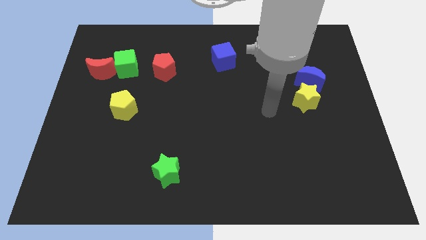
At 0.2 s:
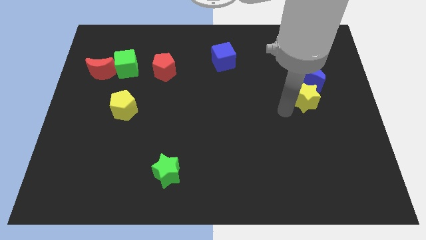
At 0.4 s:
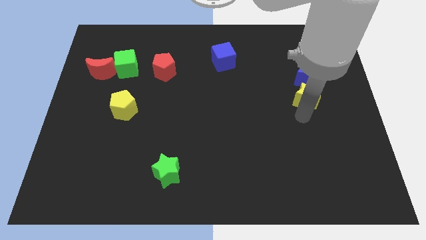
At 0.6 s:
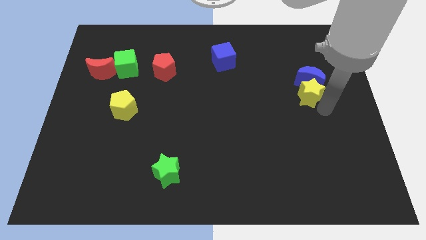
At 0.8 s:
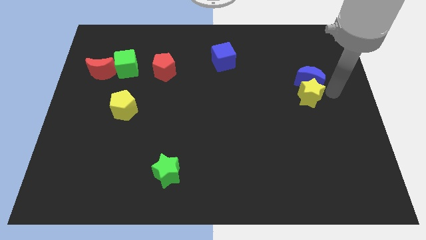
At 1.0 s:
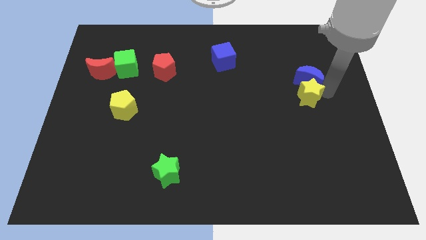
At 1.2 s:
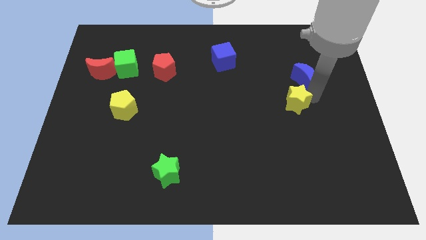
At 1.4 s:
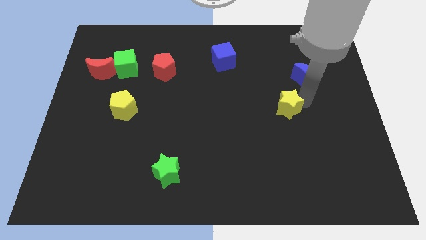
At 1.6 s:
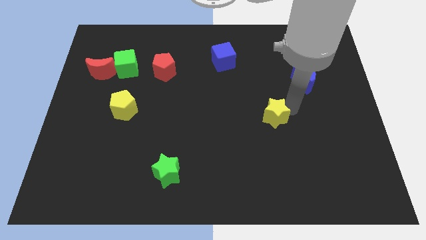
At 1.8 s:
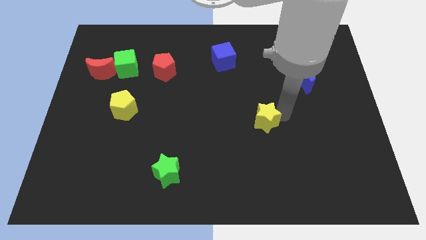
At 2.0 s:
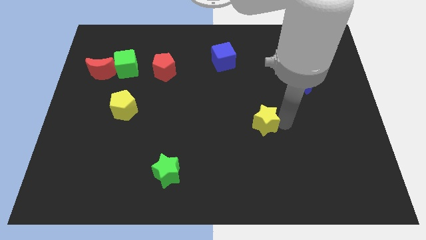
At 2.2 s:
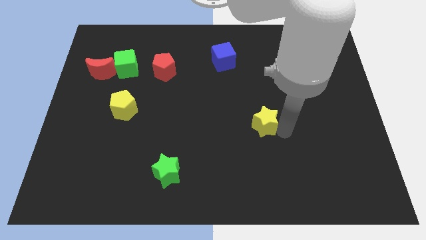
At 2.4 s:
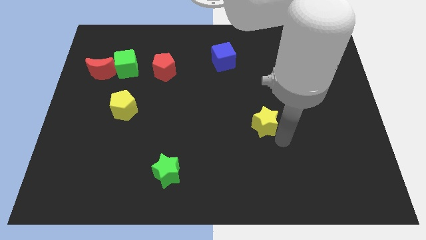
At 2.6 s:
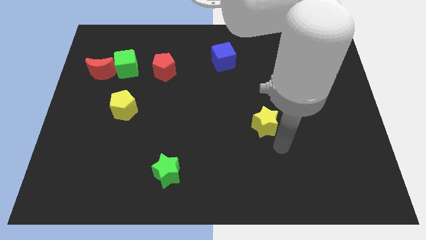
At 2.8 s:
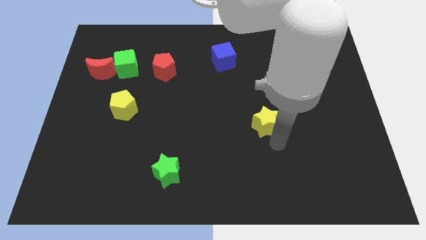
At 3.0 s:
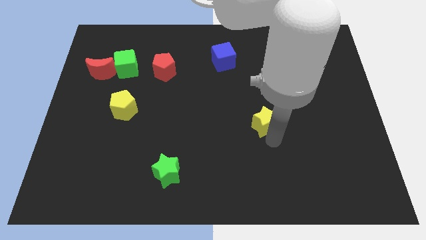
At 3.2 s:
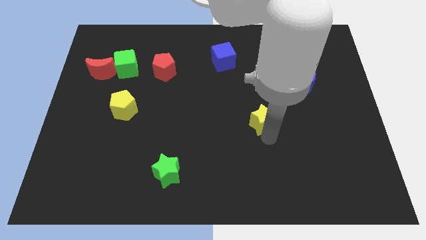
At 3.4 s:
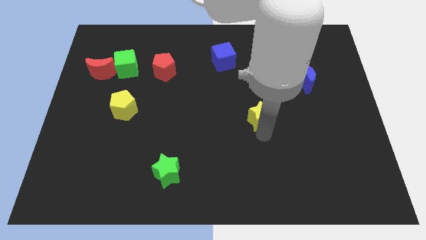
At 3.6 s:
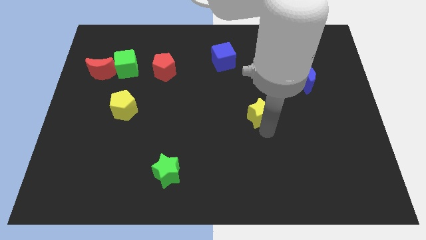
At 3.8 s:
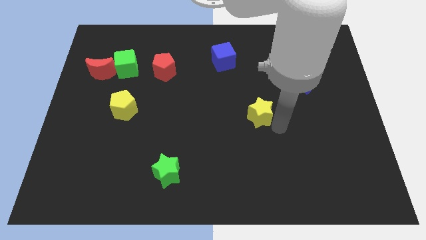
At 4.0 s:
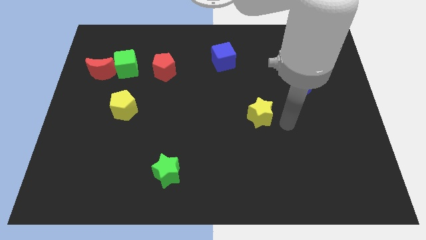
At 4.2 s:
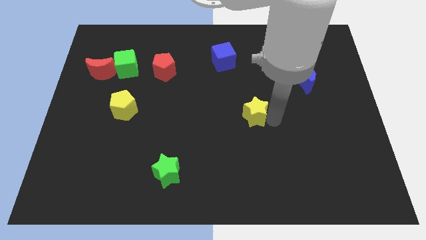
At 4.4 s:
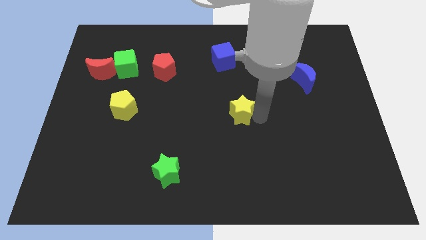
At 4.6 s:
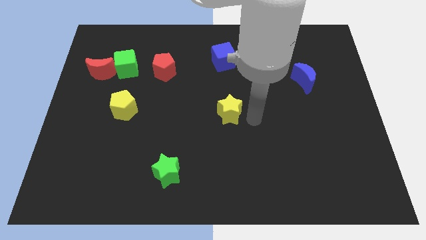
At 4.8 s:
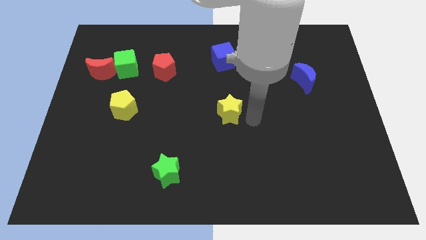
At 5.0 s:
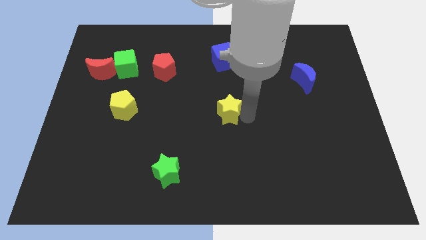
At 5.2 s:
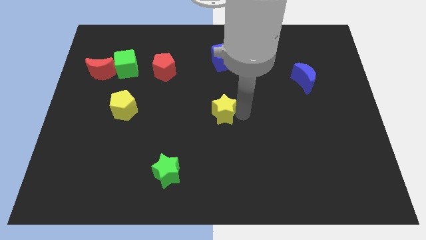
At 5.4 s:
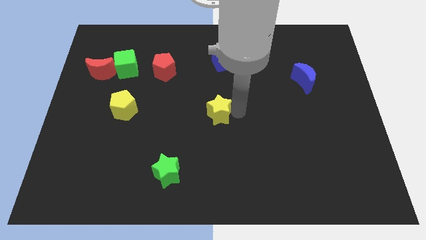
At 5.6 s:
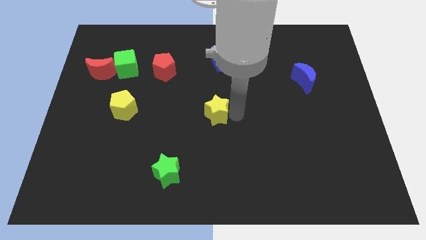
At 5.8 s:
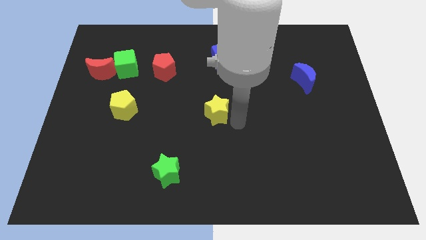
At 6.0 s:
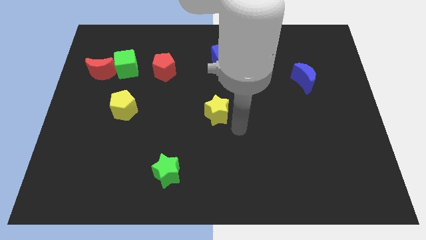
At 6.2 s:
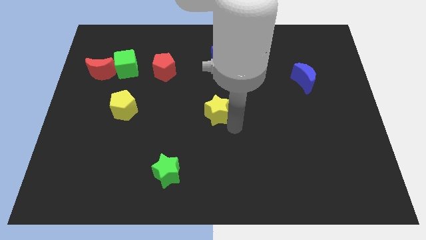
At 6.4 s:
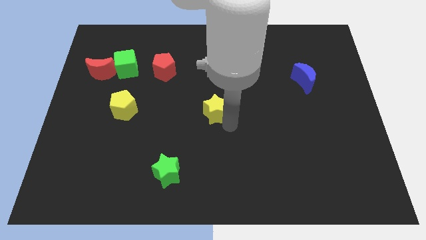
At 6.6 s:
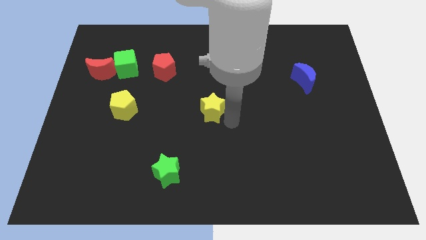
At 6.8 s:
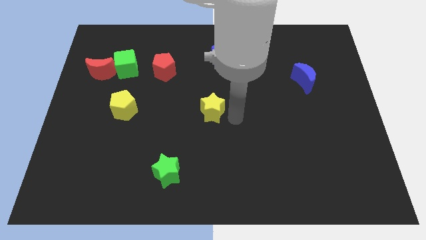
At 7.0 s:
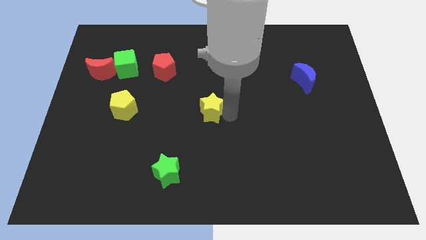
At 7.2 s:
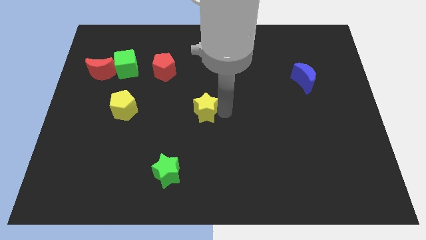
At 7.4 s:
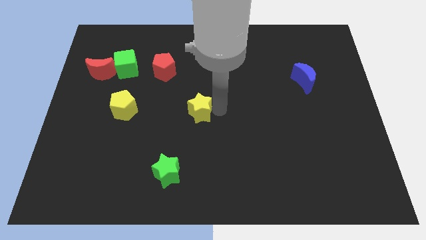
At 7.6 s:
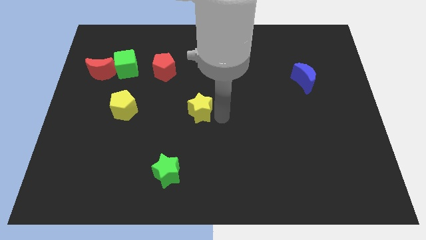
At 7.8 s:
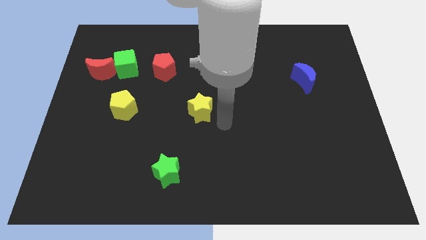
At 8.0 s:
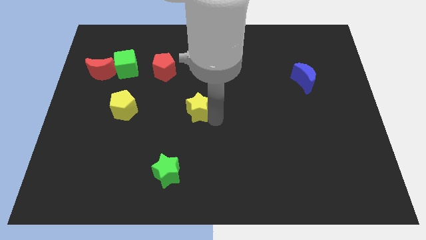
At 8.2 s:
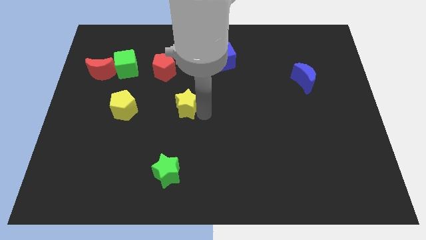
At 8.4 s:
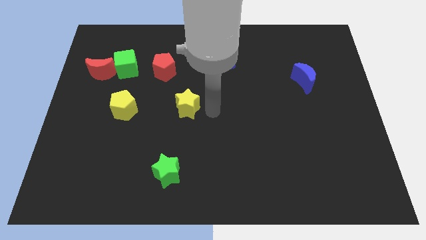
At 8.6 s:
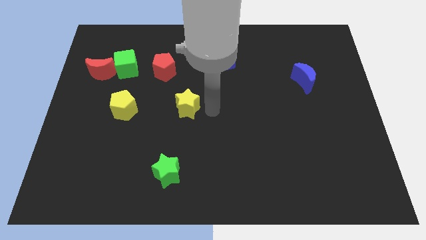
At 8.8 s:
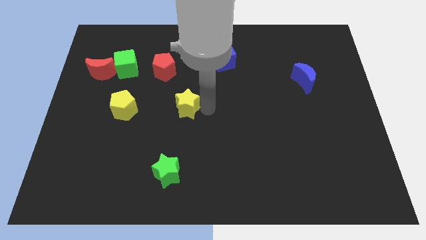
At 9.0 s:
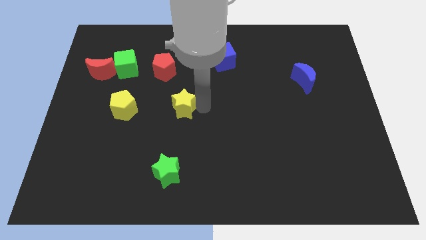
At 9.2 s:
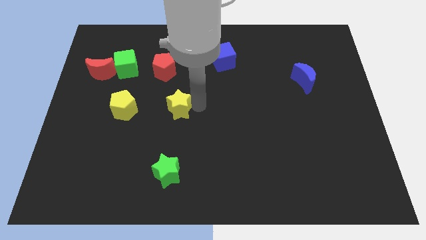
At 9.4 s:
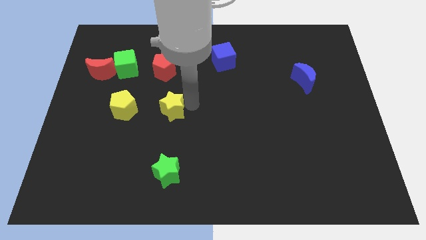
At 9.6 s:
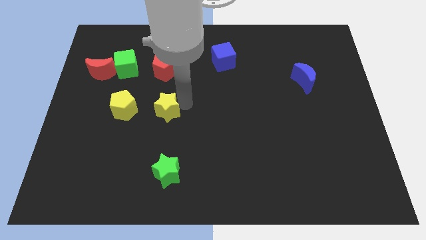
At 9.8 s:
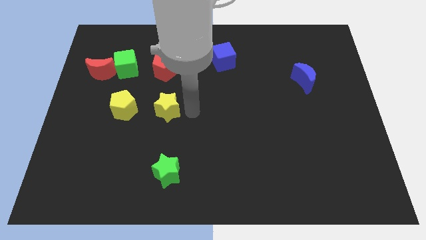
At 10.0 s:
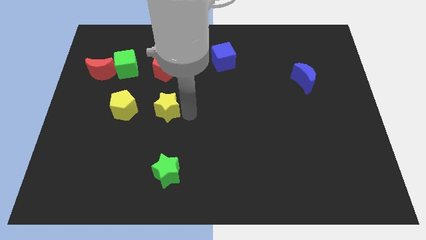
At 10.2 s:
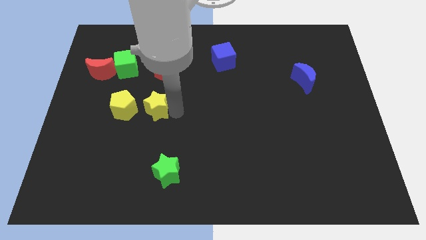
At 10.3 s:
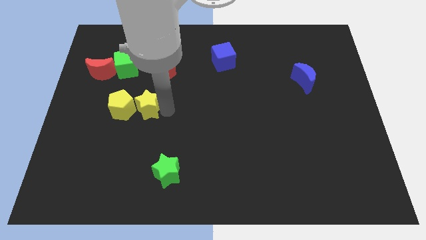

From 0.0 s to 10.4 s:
put the yellow star close to the yellow pentagon

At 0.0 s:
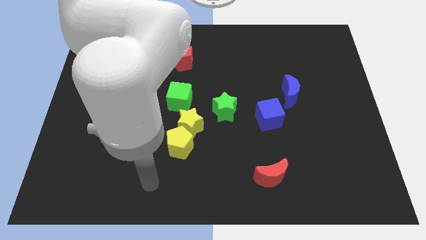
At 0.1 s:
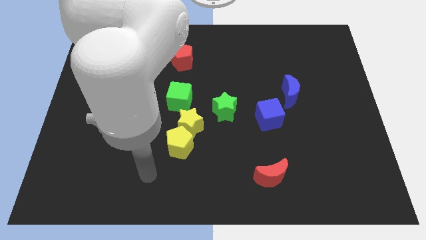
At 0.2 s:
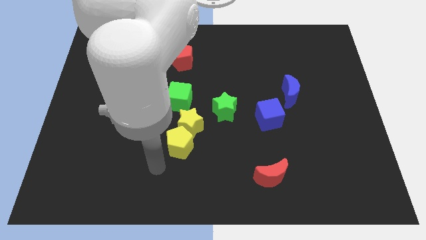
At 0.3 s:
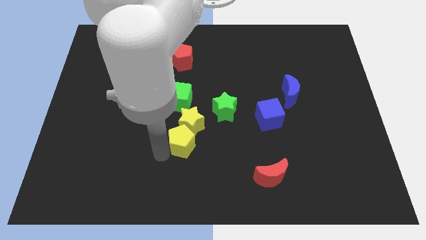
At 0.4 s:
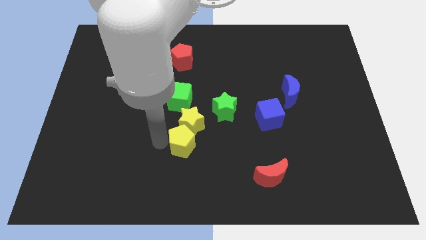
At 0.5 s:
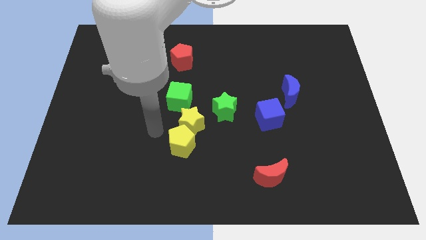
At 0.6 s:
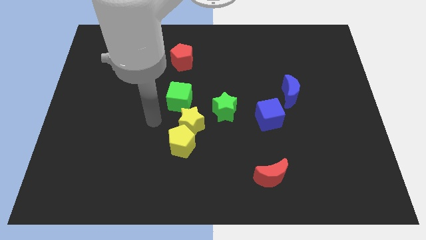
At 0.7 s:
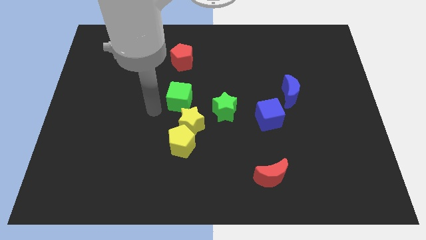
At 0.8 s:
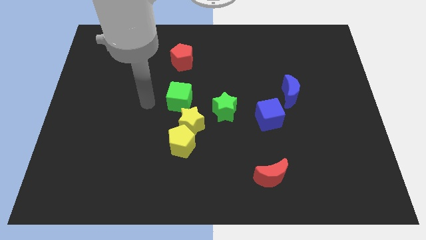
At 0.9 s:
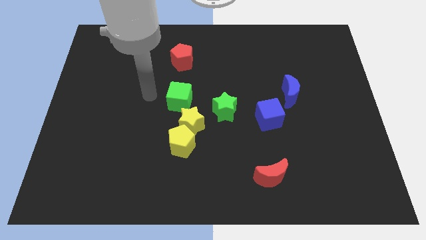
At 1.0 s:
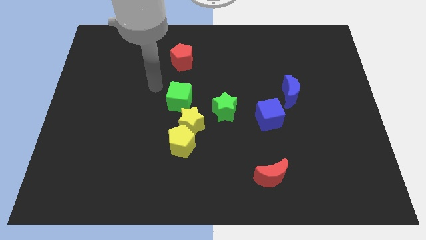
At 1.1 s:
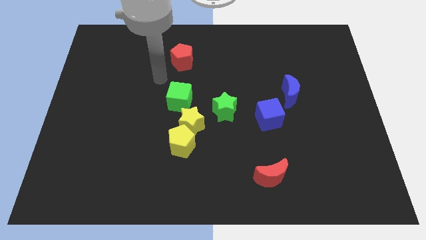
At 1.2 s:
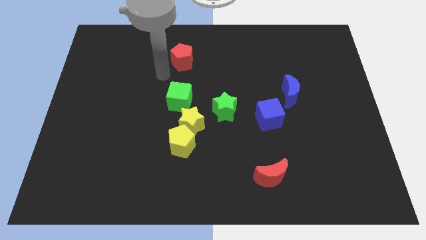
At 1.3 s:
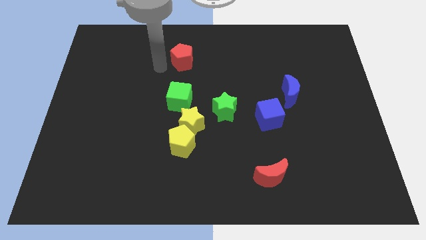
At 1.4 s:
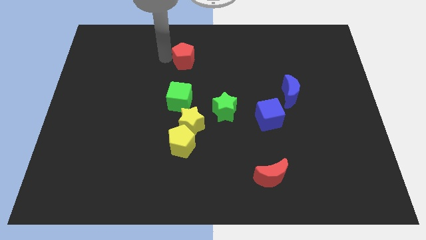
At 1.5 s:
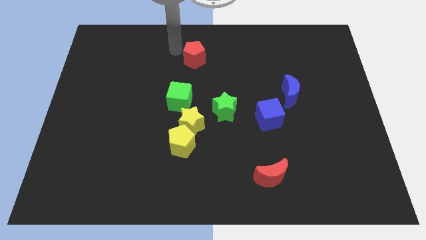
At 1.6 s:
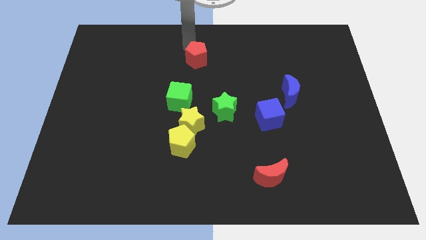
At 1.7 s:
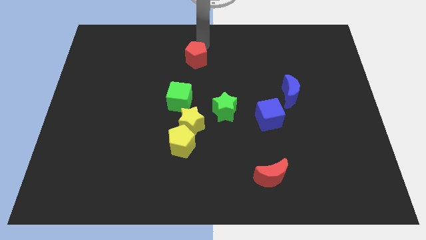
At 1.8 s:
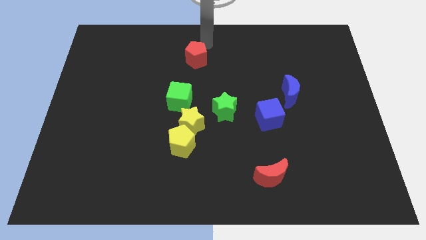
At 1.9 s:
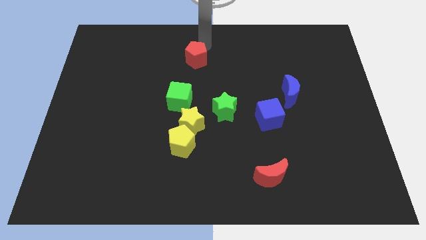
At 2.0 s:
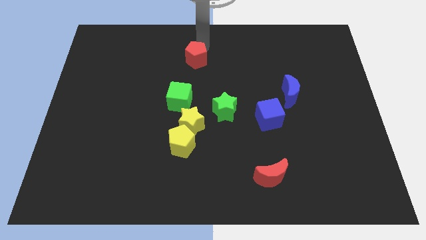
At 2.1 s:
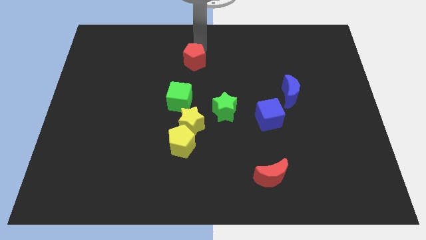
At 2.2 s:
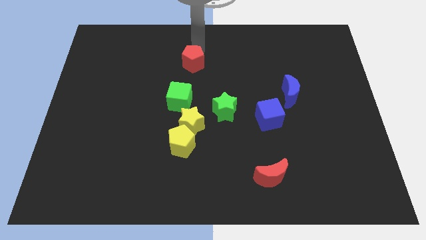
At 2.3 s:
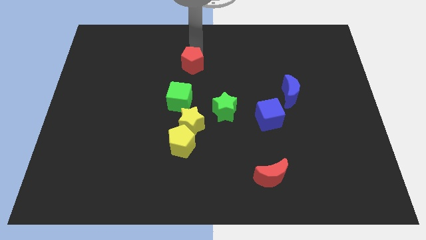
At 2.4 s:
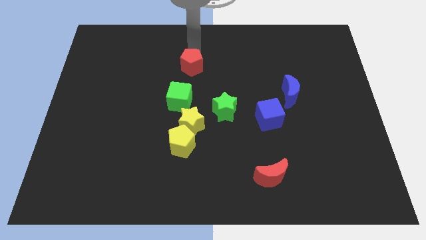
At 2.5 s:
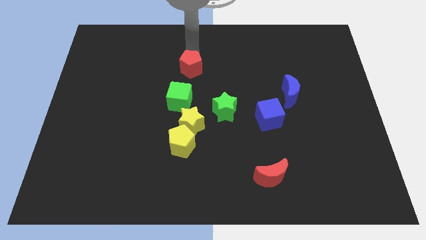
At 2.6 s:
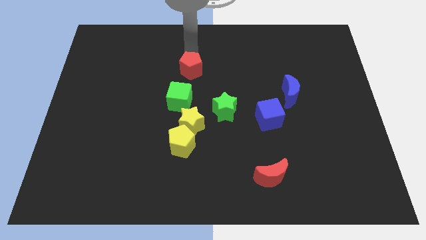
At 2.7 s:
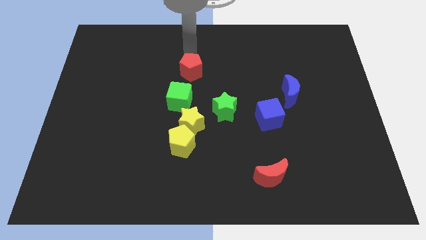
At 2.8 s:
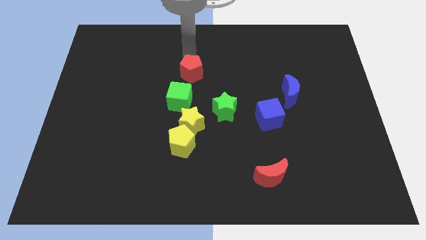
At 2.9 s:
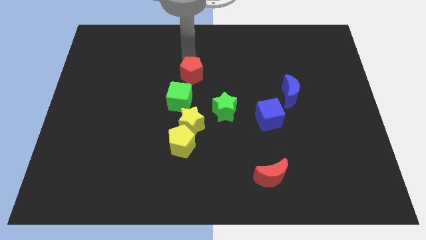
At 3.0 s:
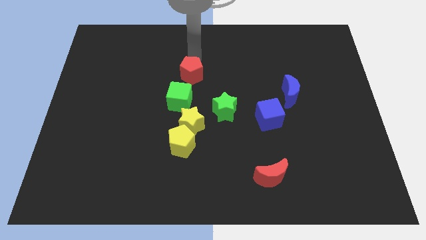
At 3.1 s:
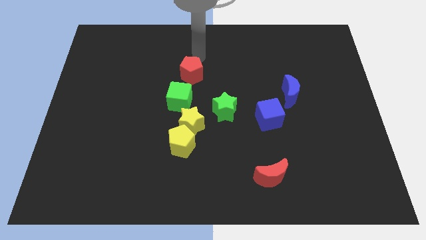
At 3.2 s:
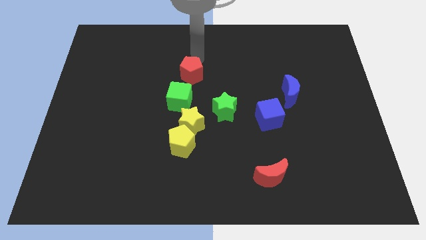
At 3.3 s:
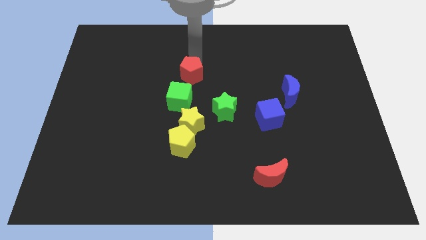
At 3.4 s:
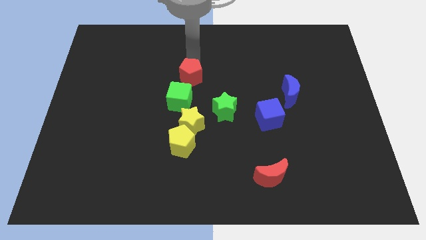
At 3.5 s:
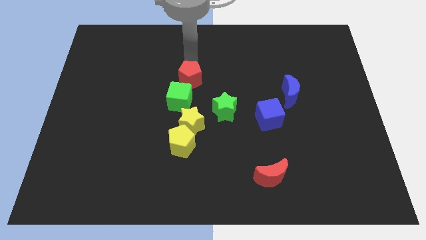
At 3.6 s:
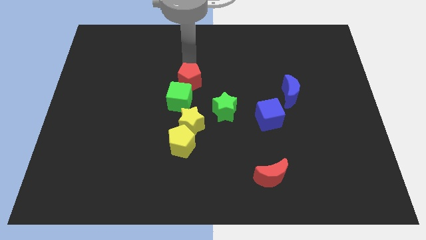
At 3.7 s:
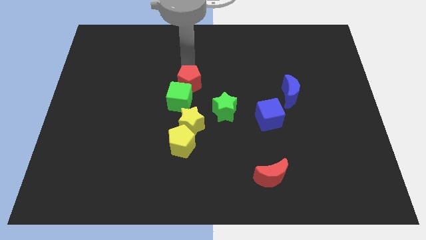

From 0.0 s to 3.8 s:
move the red pentagon close to the green cube
